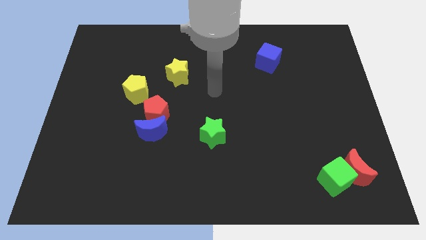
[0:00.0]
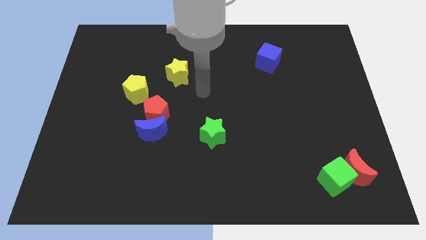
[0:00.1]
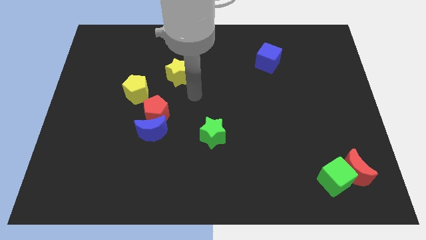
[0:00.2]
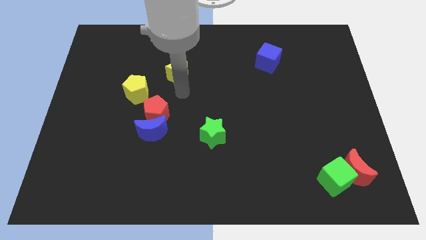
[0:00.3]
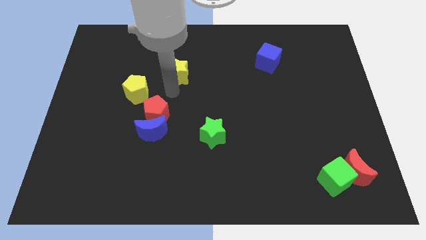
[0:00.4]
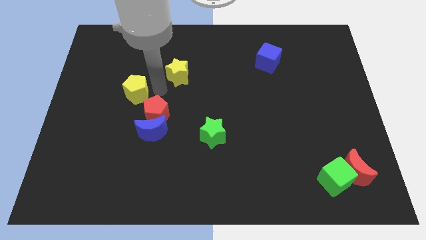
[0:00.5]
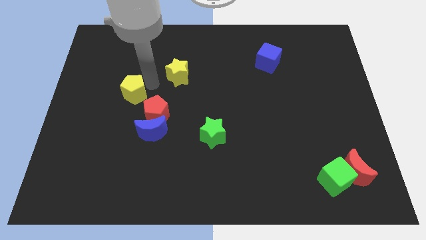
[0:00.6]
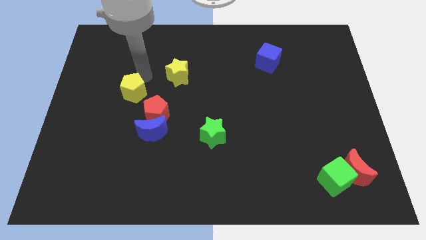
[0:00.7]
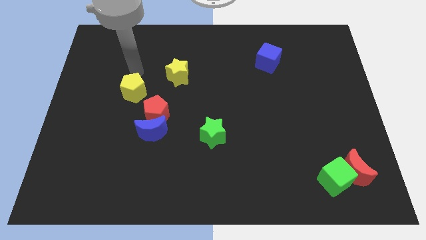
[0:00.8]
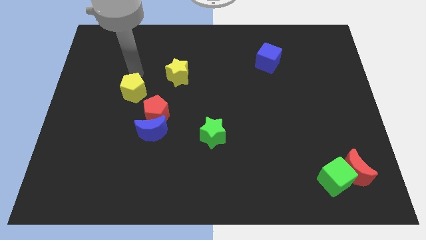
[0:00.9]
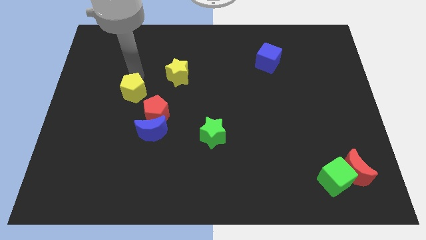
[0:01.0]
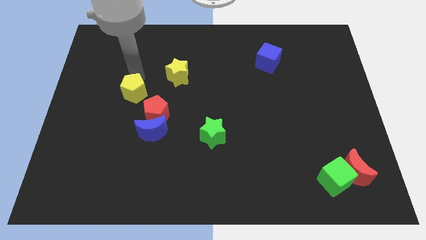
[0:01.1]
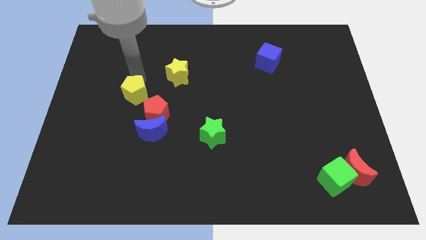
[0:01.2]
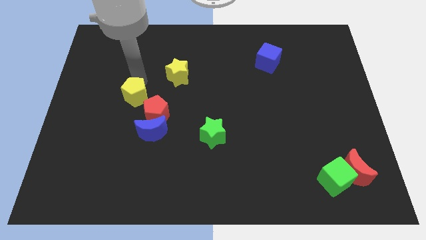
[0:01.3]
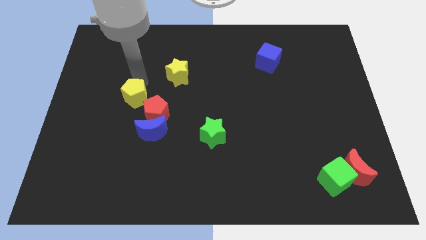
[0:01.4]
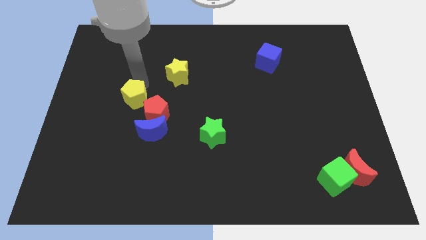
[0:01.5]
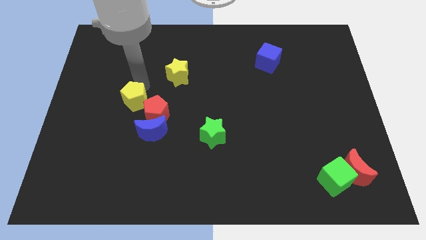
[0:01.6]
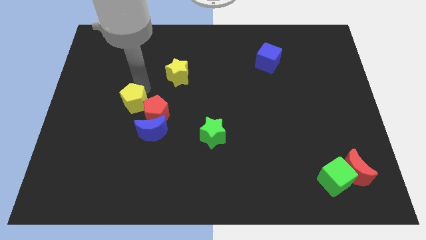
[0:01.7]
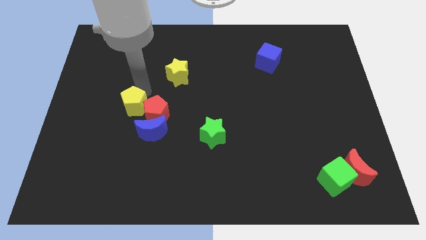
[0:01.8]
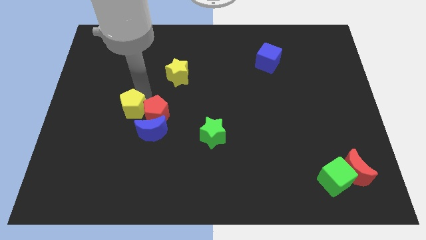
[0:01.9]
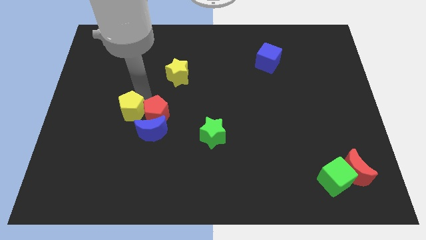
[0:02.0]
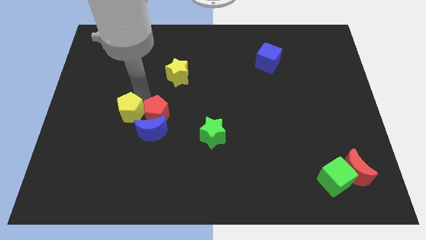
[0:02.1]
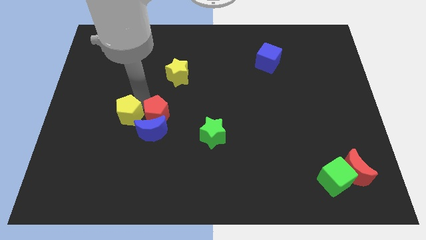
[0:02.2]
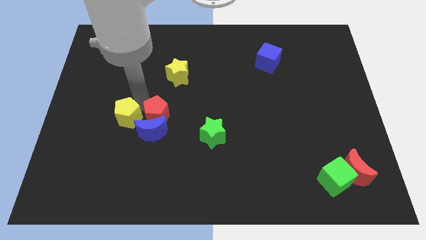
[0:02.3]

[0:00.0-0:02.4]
slightly slide the yellow pentagon downwards

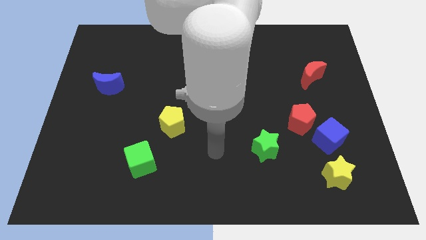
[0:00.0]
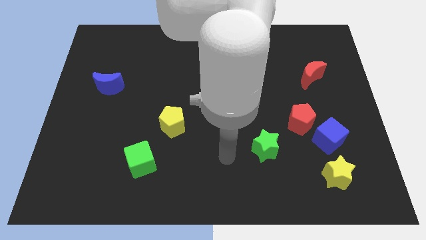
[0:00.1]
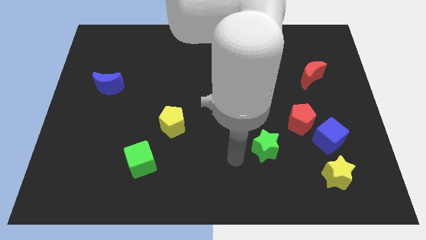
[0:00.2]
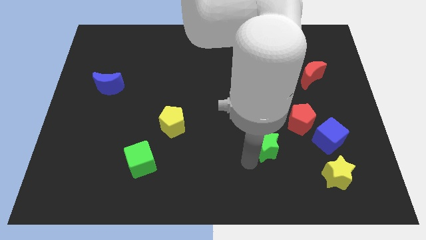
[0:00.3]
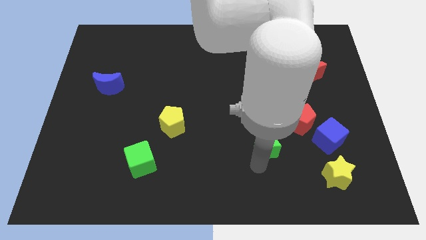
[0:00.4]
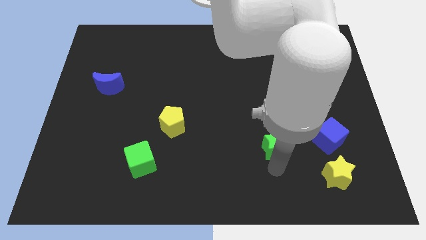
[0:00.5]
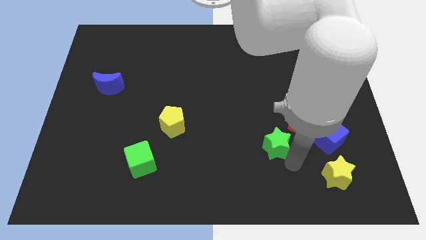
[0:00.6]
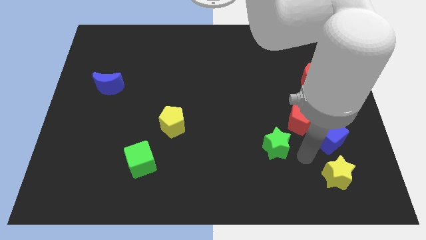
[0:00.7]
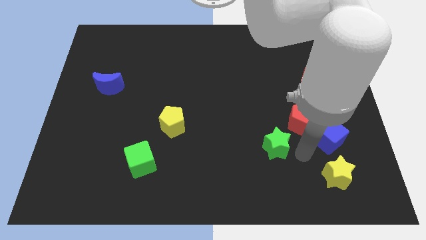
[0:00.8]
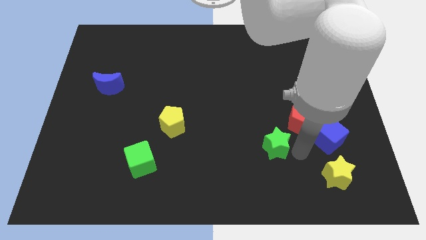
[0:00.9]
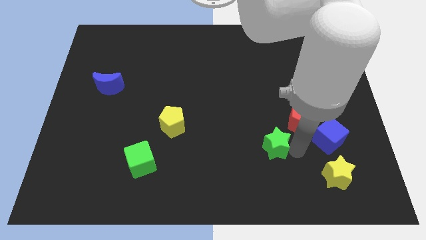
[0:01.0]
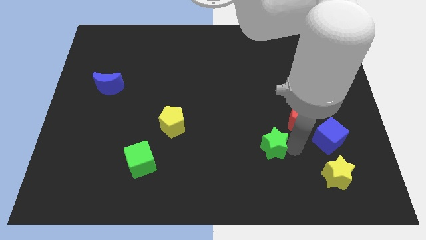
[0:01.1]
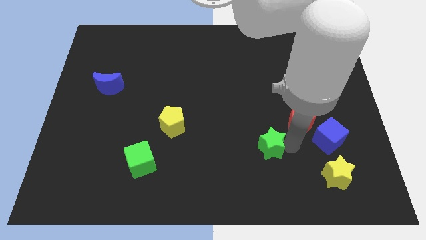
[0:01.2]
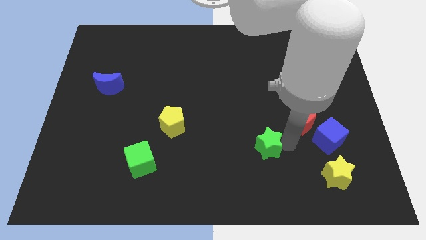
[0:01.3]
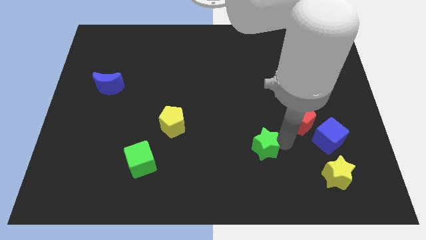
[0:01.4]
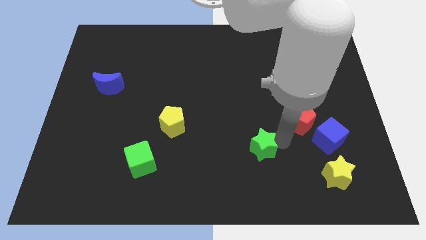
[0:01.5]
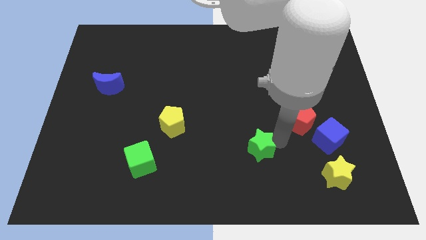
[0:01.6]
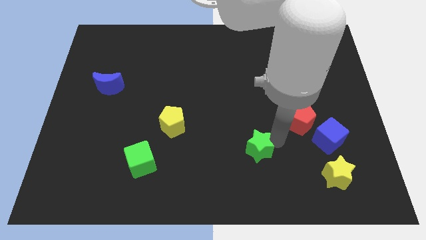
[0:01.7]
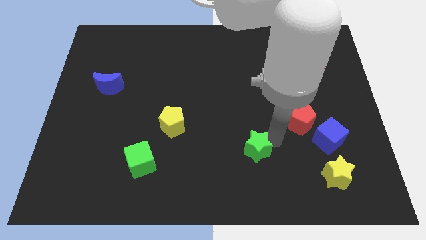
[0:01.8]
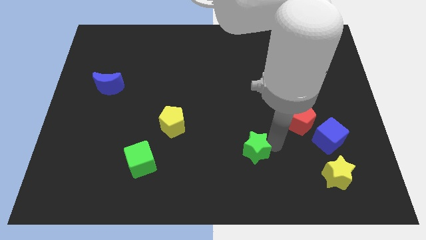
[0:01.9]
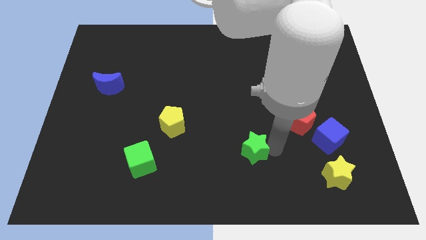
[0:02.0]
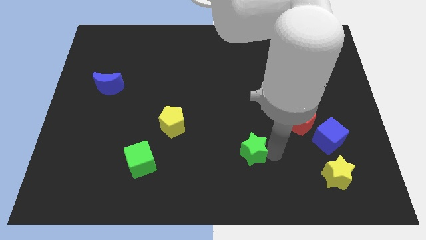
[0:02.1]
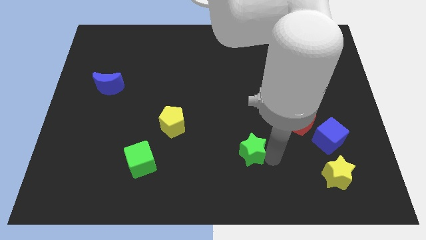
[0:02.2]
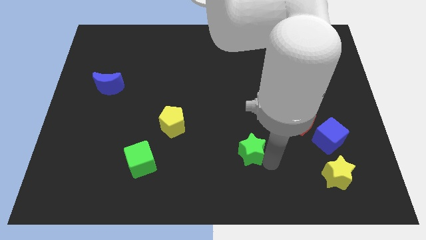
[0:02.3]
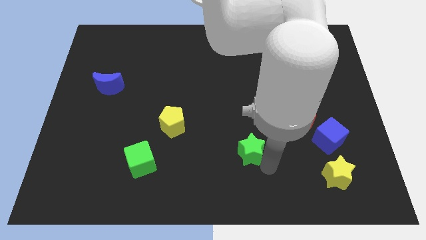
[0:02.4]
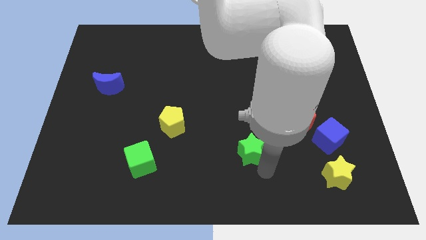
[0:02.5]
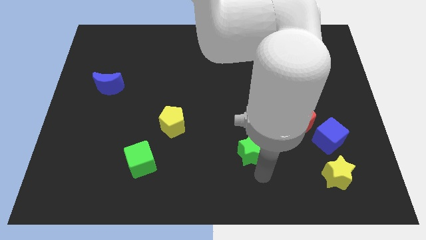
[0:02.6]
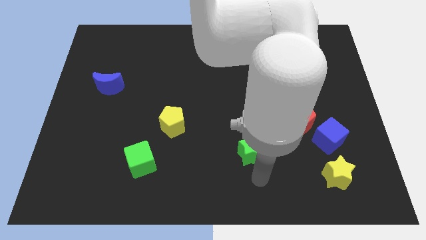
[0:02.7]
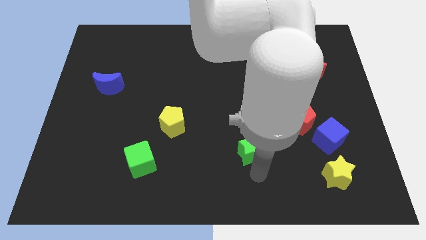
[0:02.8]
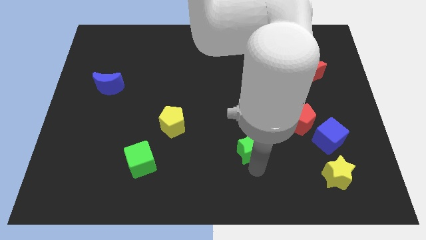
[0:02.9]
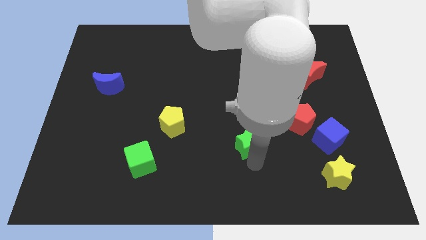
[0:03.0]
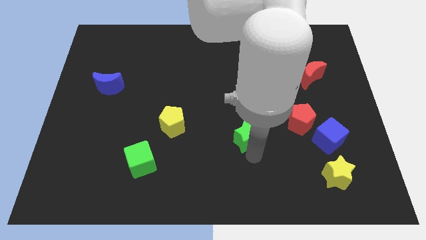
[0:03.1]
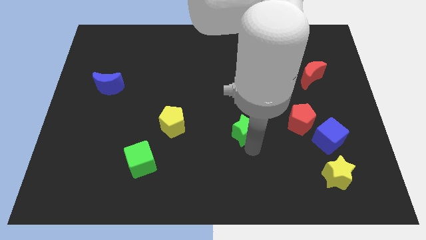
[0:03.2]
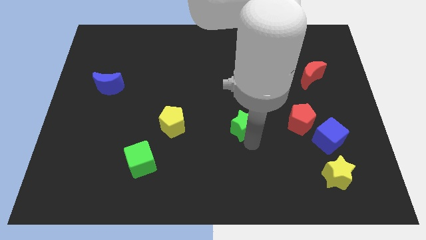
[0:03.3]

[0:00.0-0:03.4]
slide the green star up and then to the left a little

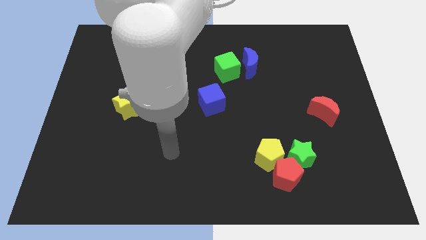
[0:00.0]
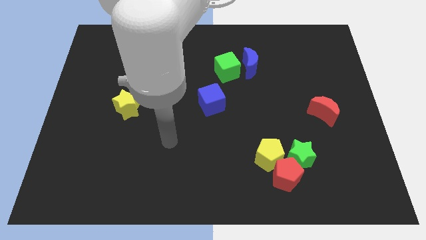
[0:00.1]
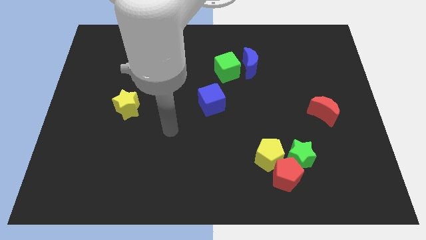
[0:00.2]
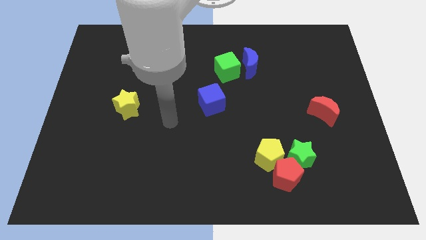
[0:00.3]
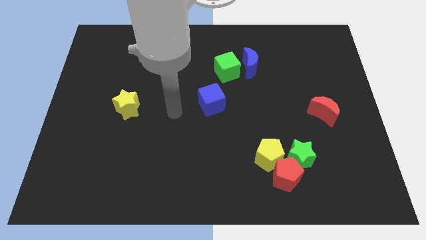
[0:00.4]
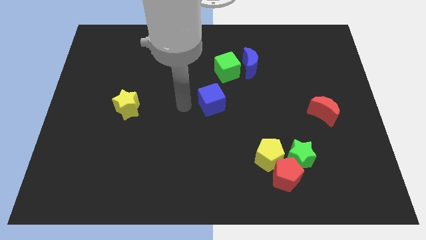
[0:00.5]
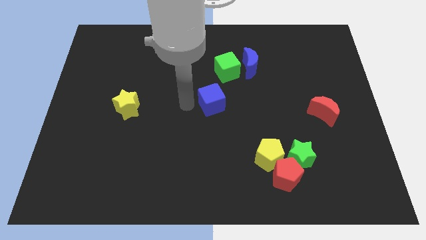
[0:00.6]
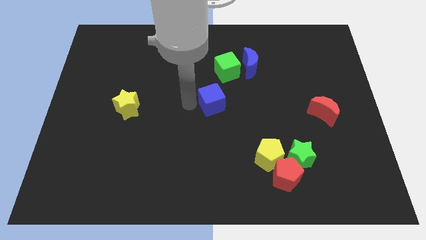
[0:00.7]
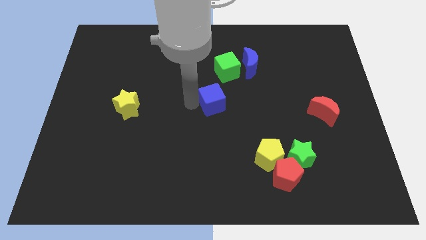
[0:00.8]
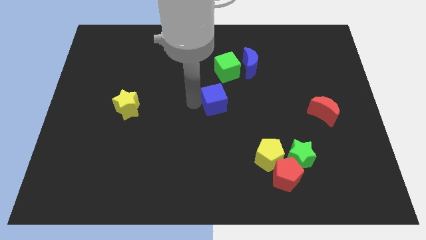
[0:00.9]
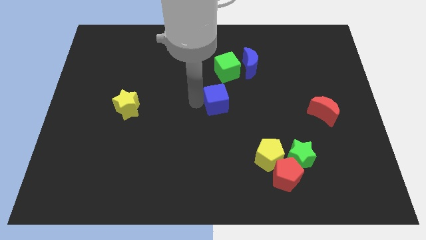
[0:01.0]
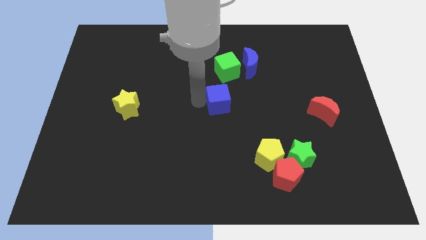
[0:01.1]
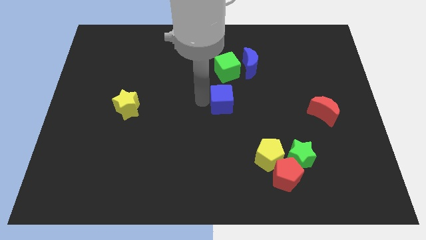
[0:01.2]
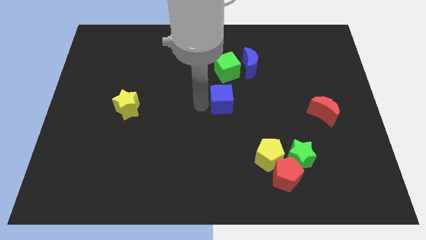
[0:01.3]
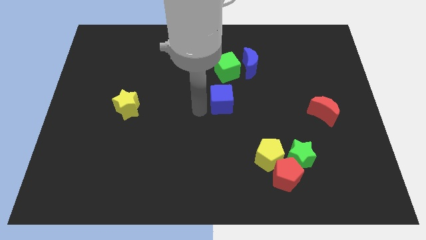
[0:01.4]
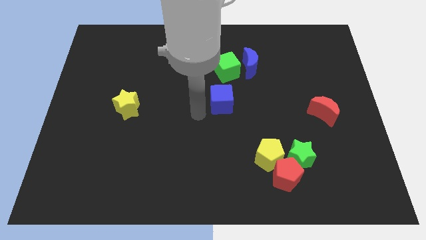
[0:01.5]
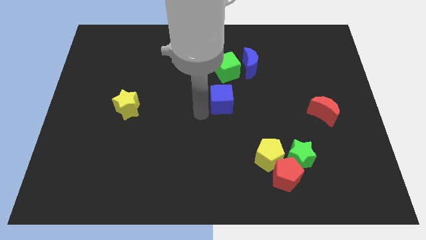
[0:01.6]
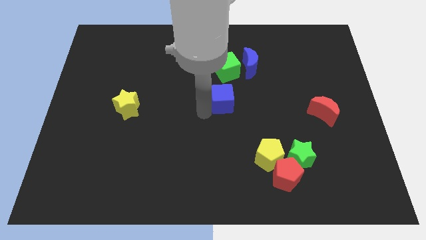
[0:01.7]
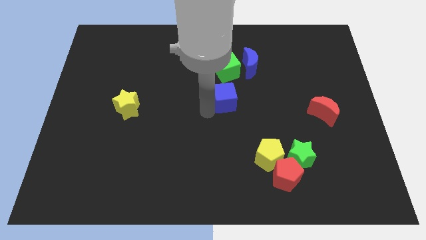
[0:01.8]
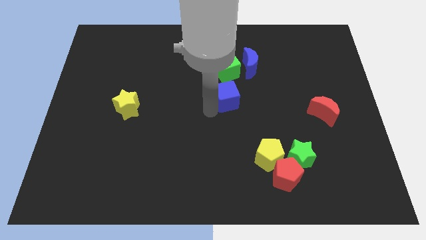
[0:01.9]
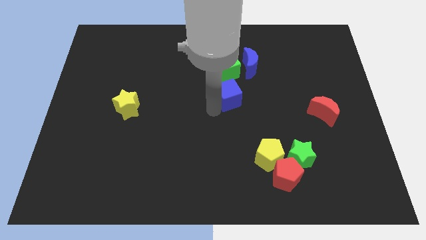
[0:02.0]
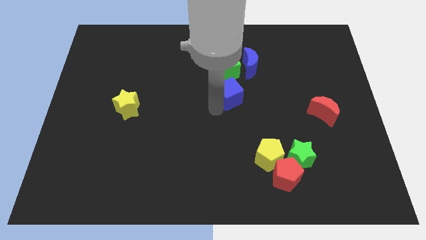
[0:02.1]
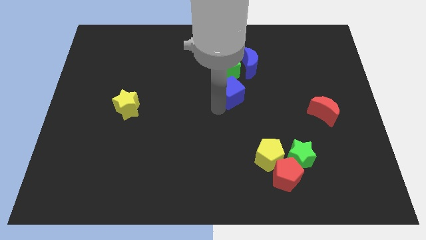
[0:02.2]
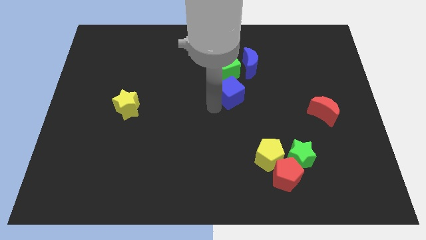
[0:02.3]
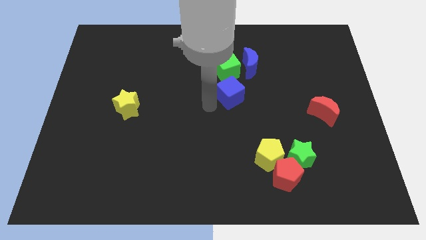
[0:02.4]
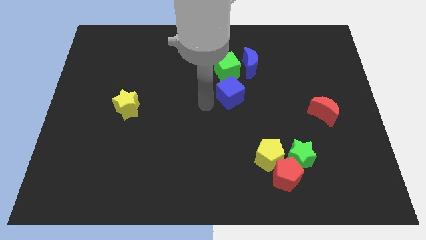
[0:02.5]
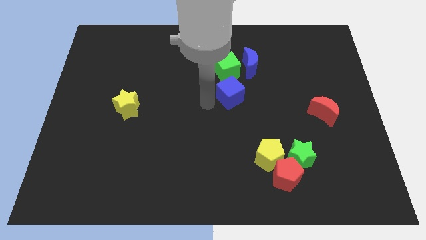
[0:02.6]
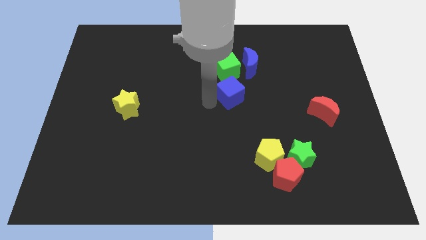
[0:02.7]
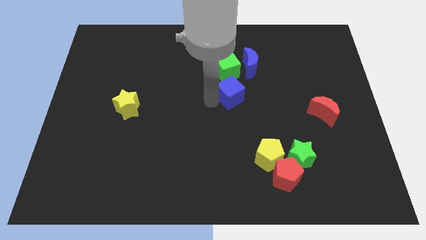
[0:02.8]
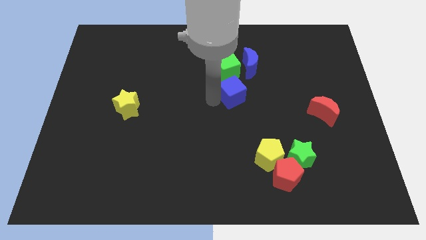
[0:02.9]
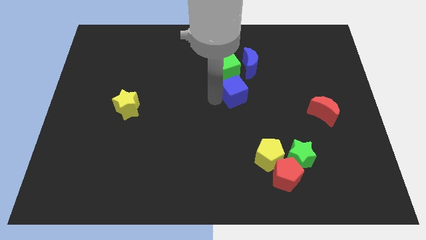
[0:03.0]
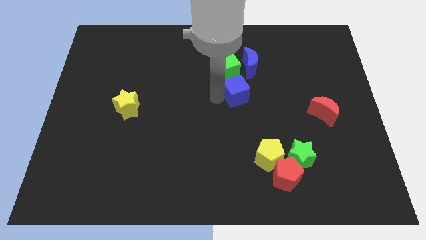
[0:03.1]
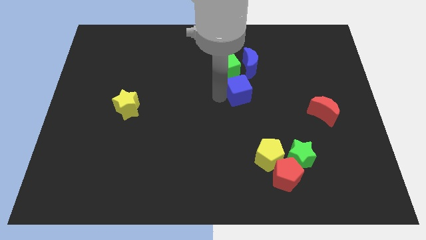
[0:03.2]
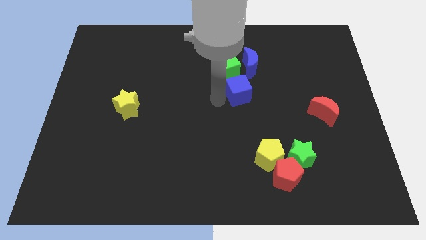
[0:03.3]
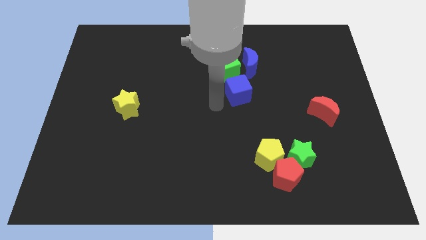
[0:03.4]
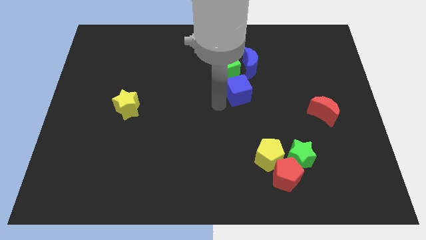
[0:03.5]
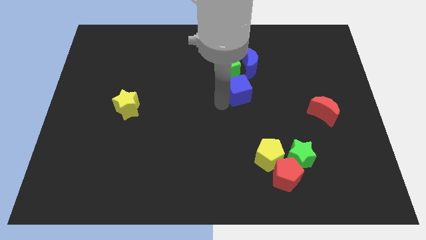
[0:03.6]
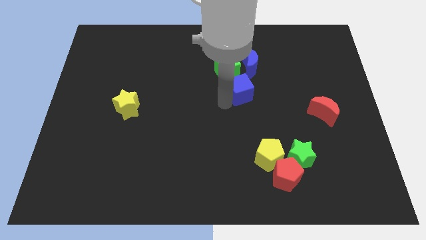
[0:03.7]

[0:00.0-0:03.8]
push the blue cube up and then right a bit
